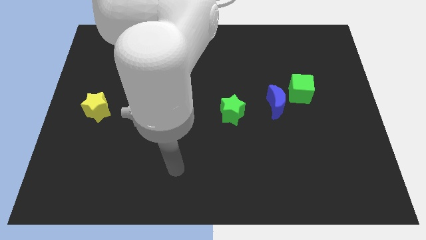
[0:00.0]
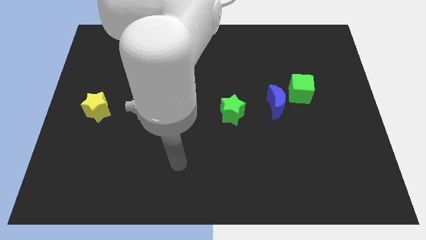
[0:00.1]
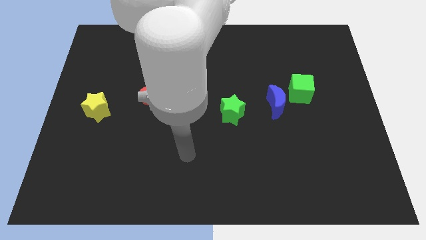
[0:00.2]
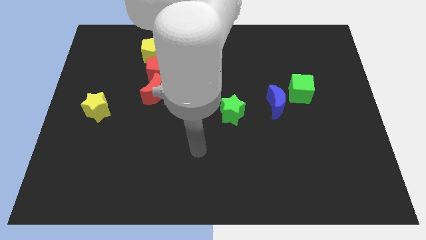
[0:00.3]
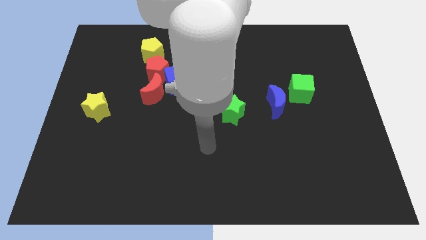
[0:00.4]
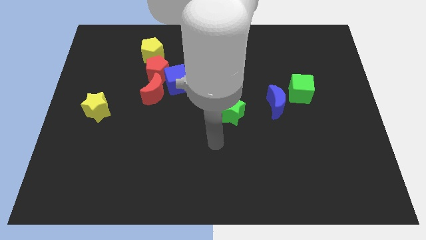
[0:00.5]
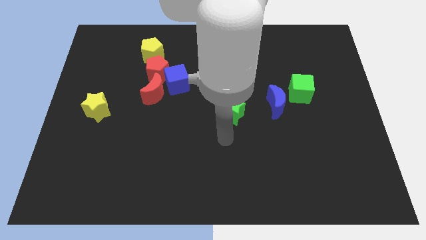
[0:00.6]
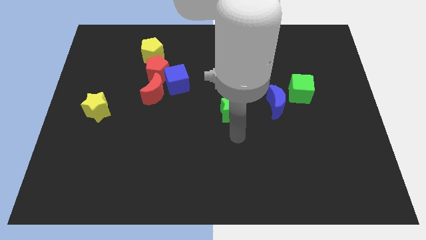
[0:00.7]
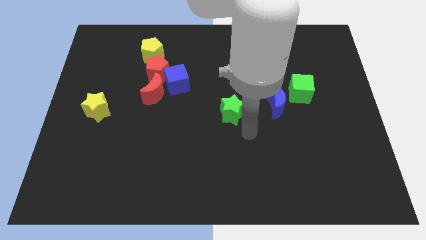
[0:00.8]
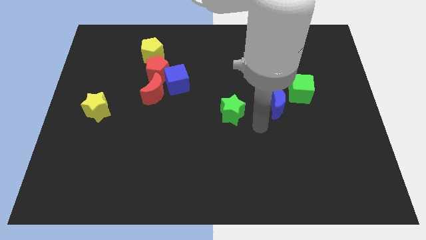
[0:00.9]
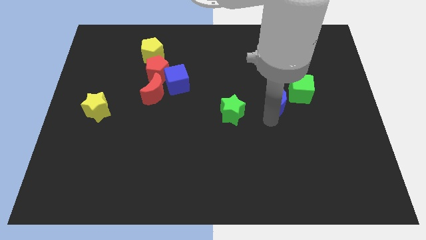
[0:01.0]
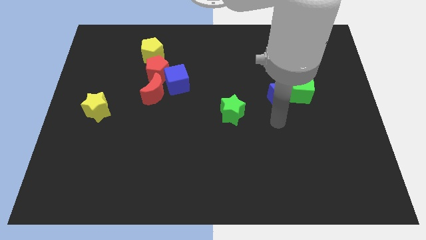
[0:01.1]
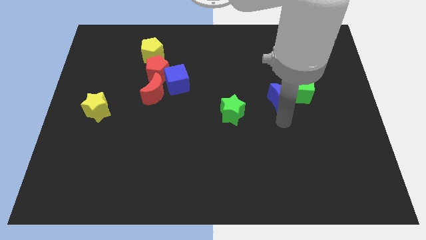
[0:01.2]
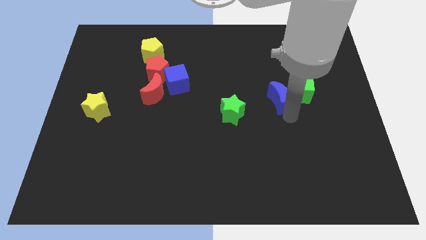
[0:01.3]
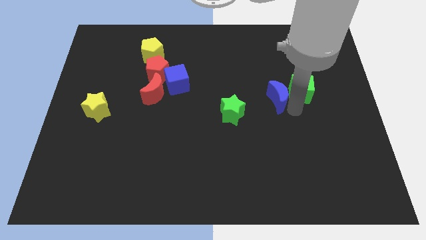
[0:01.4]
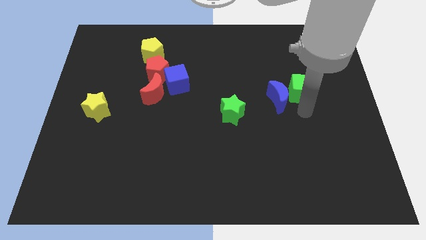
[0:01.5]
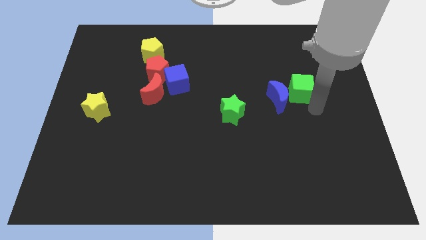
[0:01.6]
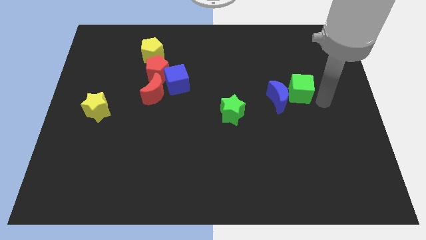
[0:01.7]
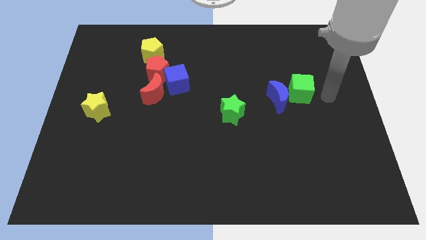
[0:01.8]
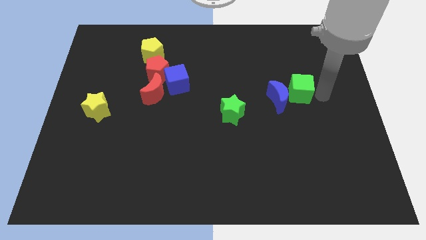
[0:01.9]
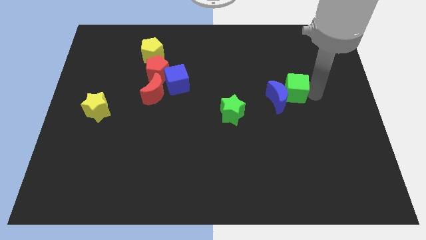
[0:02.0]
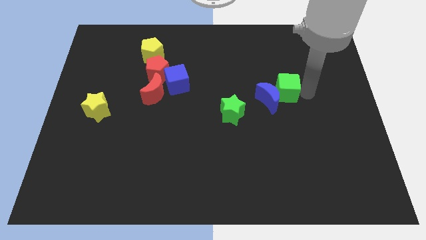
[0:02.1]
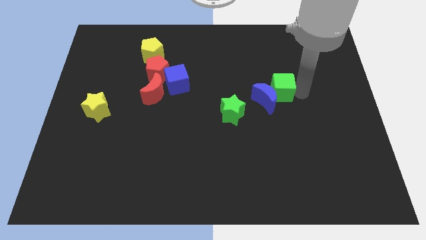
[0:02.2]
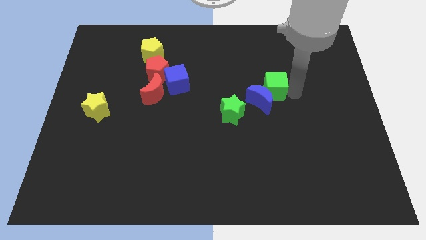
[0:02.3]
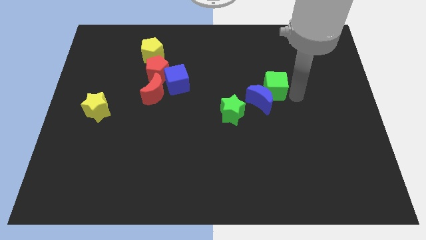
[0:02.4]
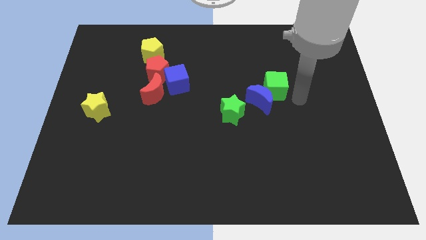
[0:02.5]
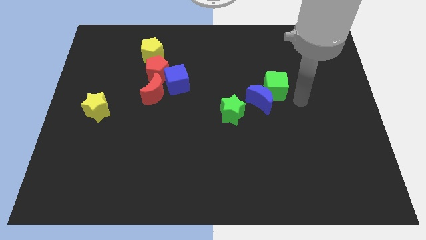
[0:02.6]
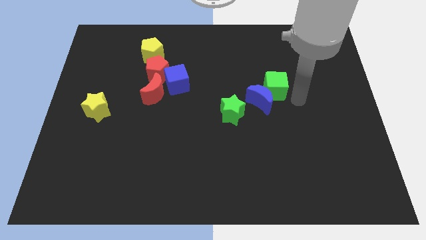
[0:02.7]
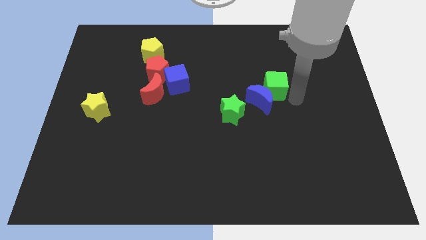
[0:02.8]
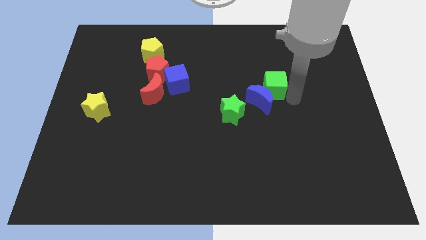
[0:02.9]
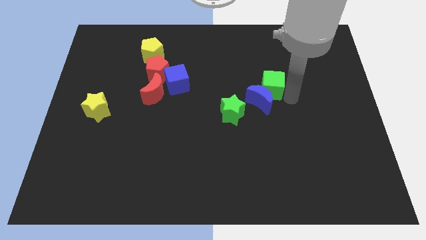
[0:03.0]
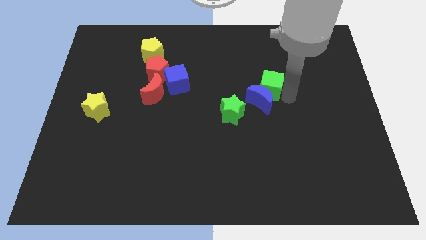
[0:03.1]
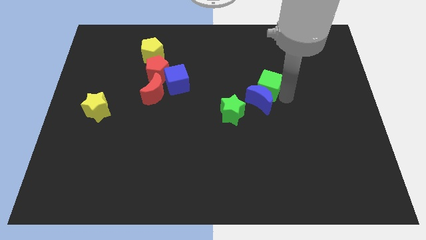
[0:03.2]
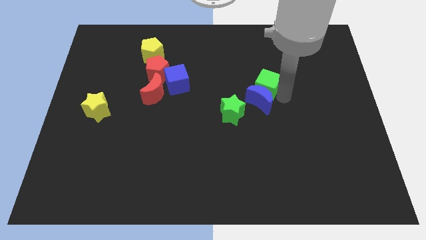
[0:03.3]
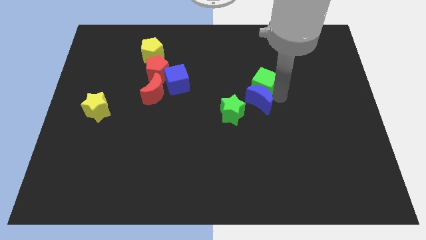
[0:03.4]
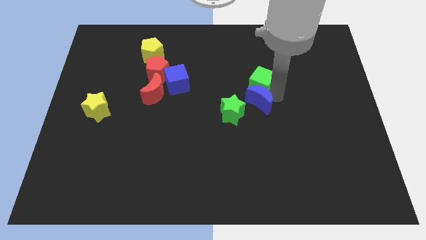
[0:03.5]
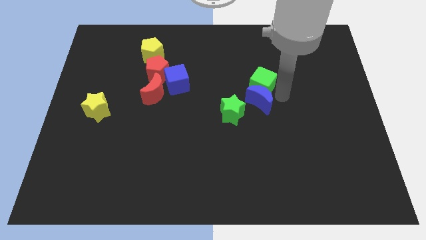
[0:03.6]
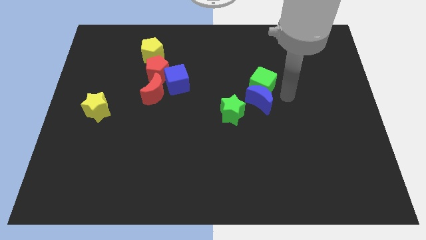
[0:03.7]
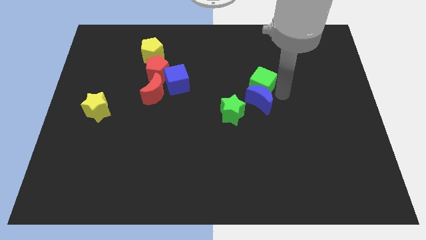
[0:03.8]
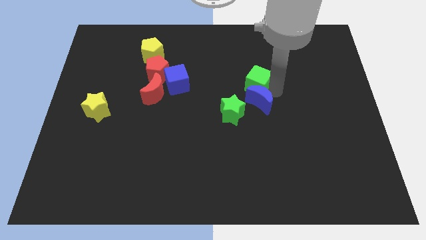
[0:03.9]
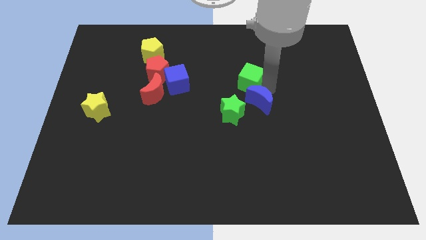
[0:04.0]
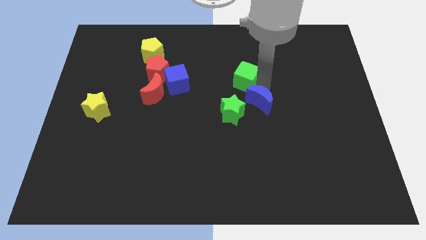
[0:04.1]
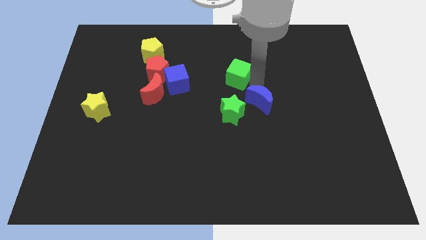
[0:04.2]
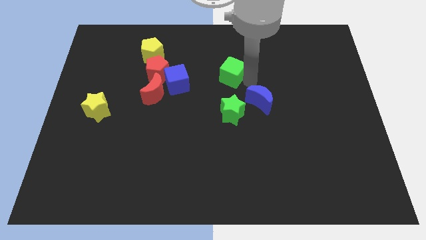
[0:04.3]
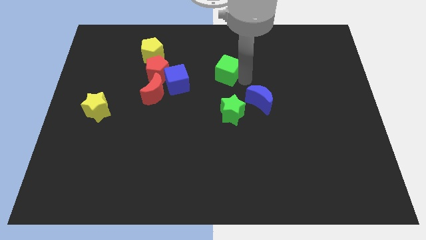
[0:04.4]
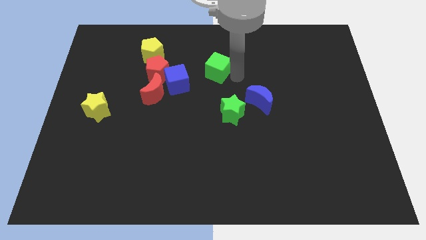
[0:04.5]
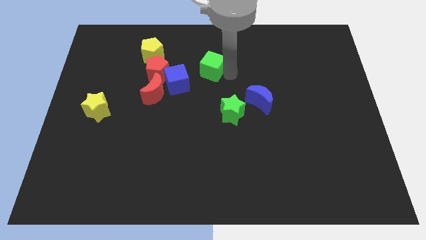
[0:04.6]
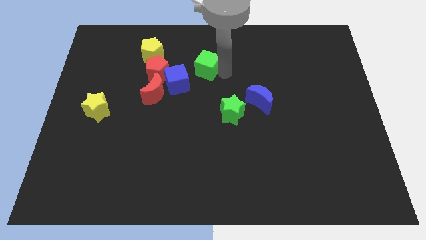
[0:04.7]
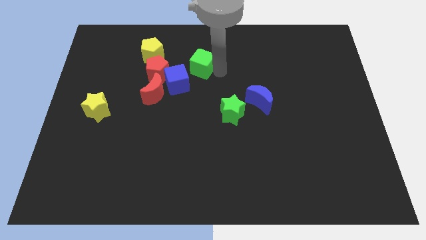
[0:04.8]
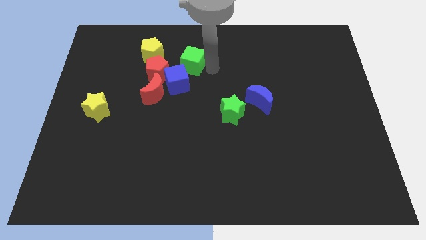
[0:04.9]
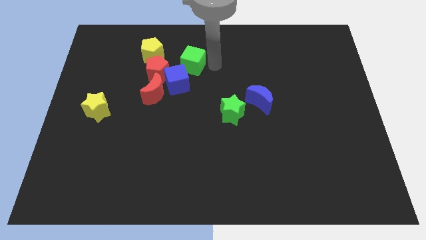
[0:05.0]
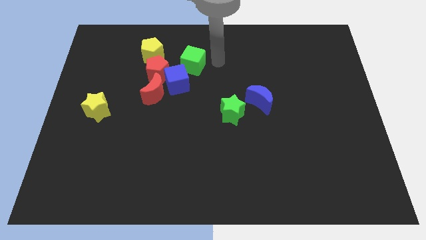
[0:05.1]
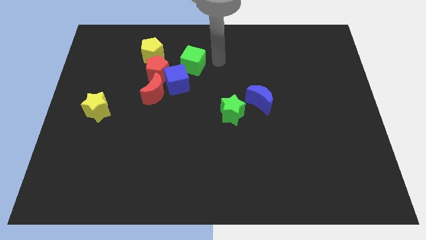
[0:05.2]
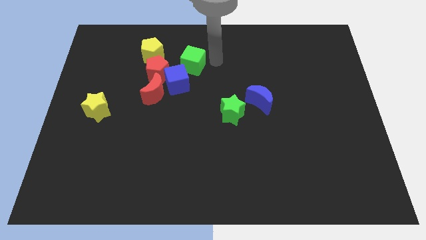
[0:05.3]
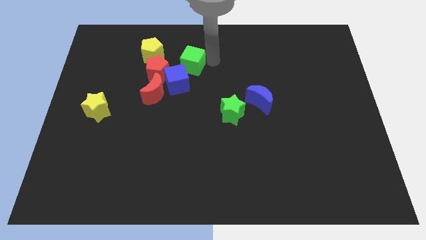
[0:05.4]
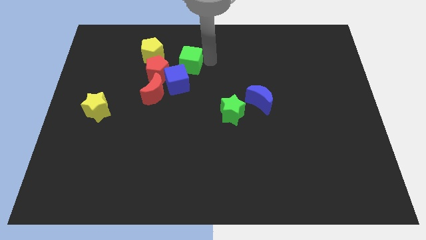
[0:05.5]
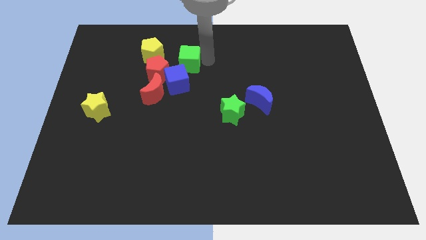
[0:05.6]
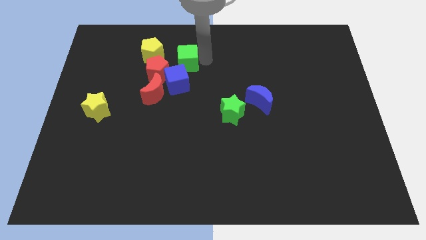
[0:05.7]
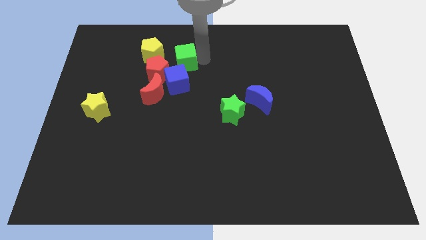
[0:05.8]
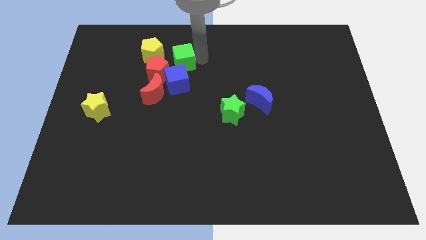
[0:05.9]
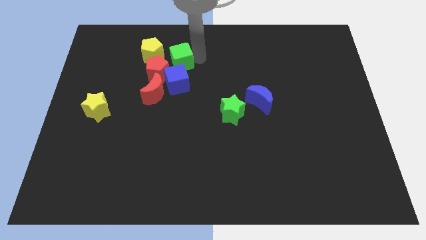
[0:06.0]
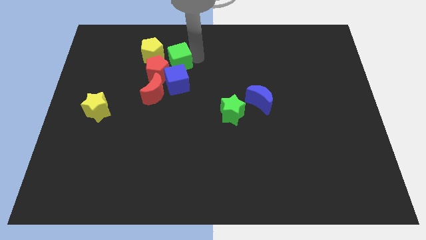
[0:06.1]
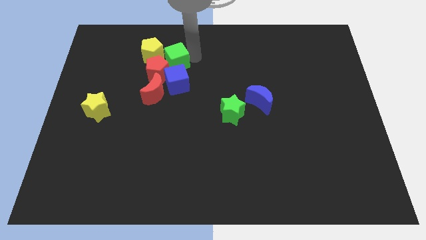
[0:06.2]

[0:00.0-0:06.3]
slide the green cube to the red pentagon

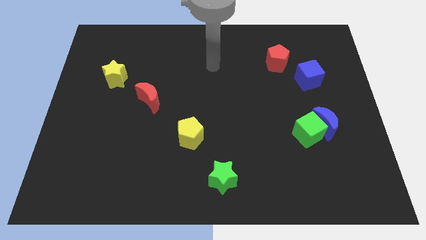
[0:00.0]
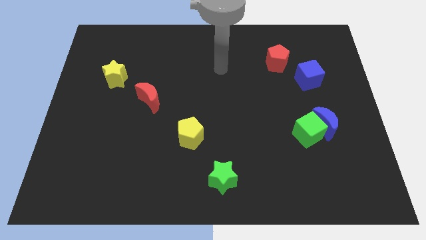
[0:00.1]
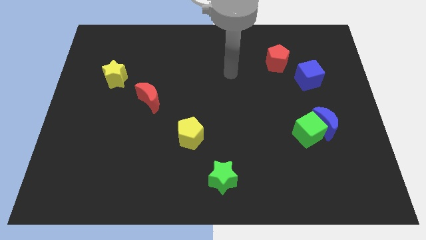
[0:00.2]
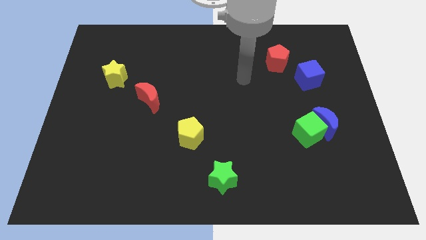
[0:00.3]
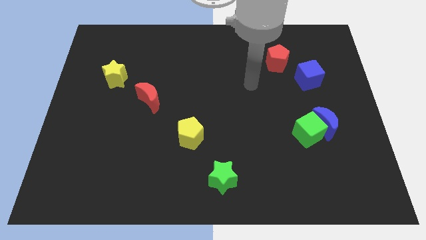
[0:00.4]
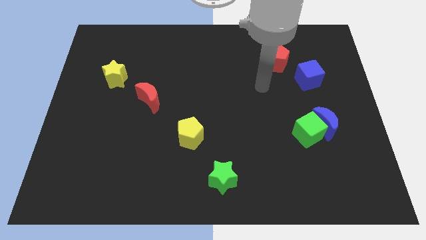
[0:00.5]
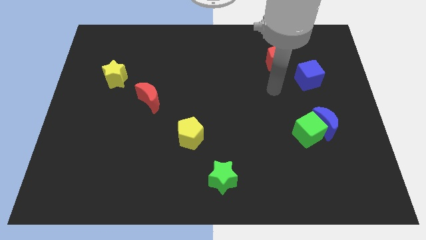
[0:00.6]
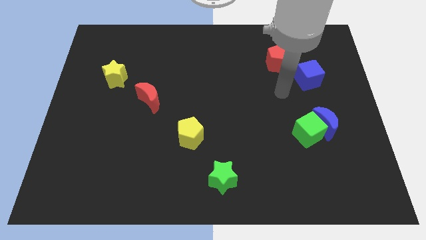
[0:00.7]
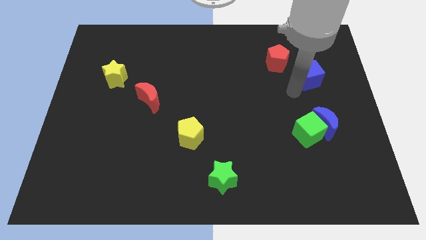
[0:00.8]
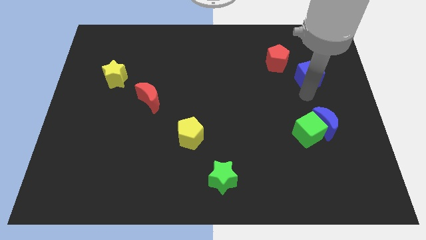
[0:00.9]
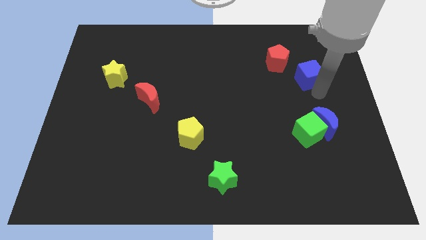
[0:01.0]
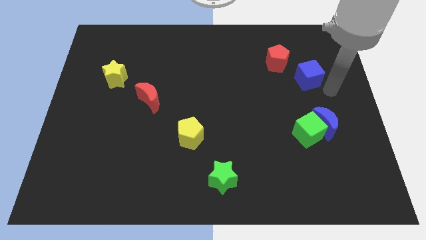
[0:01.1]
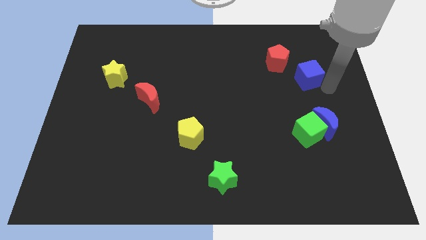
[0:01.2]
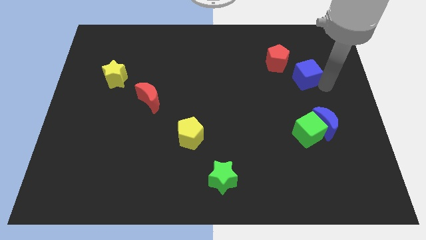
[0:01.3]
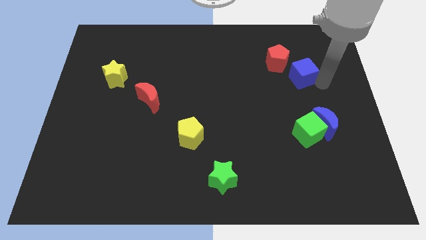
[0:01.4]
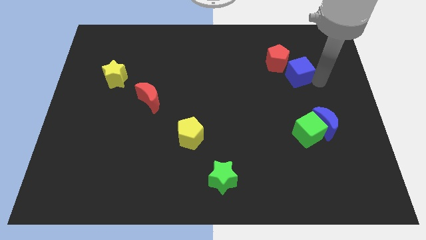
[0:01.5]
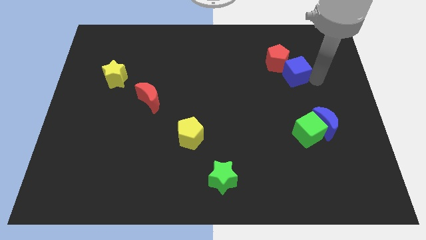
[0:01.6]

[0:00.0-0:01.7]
slide the blue cube next to the red pentagon
